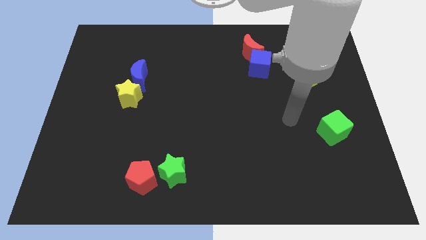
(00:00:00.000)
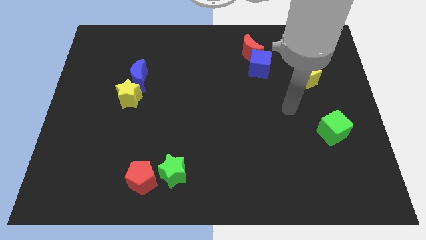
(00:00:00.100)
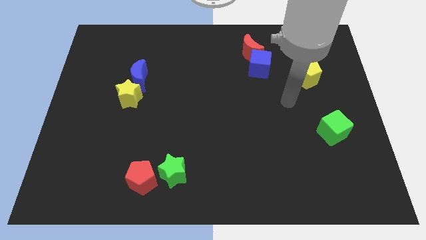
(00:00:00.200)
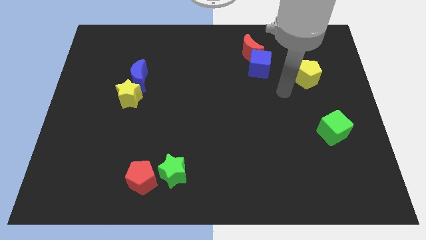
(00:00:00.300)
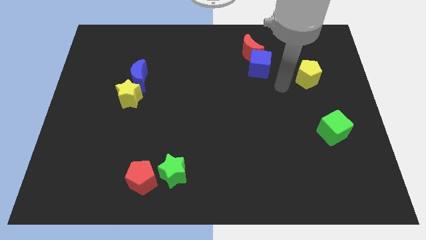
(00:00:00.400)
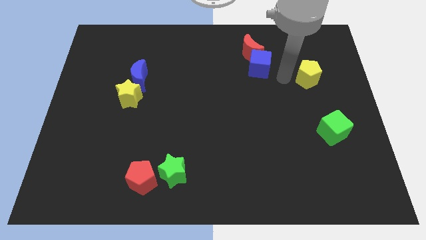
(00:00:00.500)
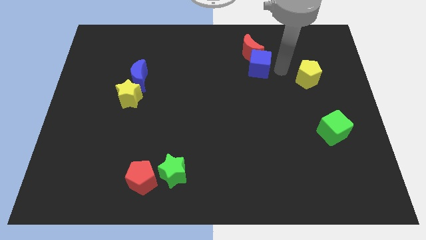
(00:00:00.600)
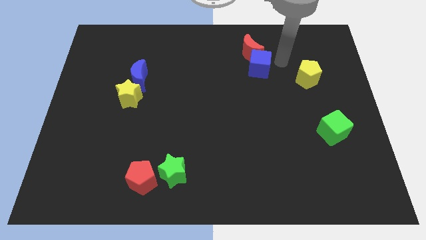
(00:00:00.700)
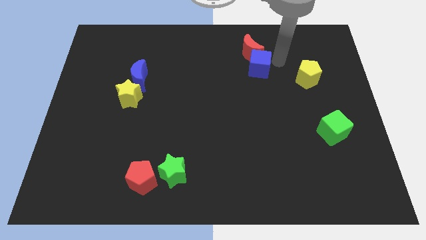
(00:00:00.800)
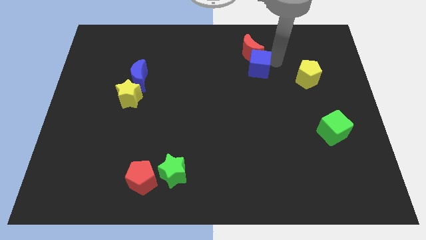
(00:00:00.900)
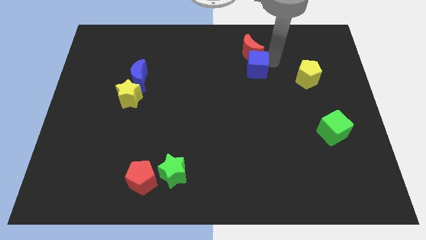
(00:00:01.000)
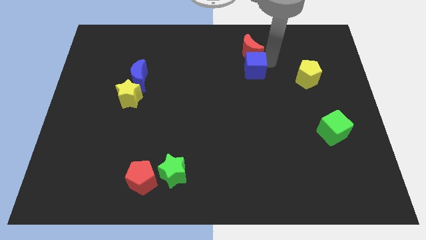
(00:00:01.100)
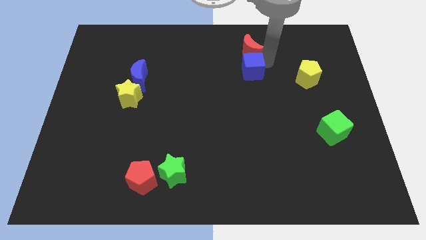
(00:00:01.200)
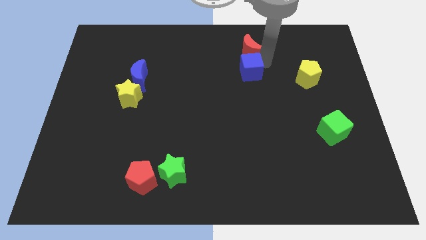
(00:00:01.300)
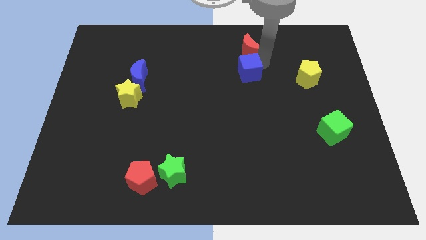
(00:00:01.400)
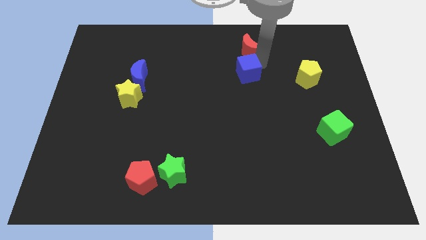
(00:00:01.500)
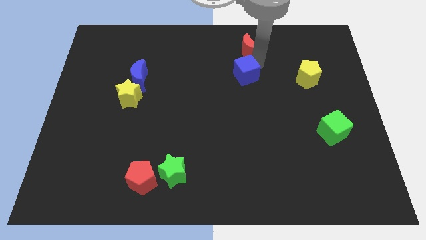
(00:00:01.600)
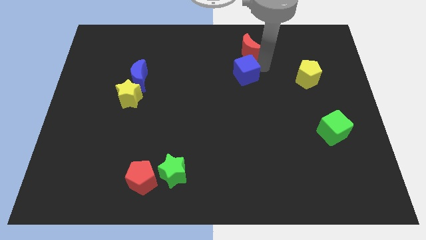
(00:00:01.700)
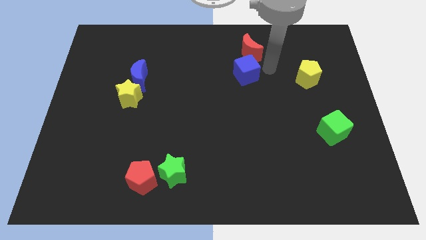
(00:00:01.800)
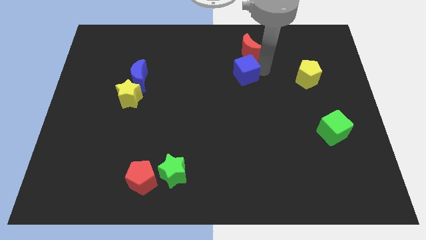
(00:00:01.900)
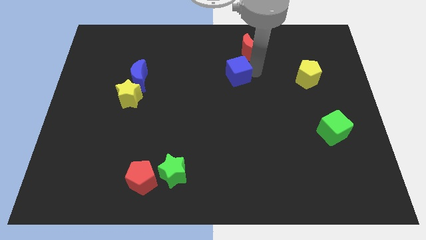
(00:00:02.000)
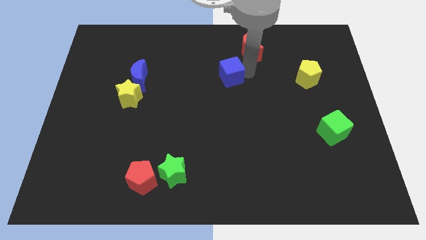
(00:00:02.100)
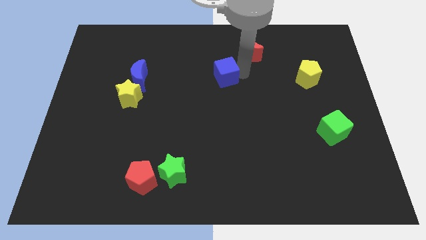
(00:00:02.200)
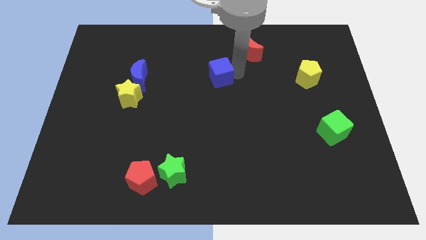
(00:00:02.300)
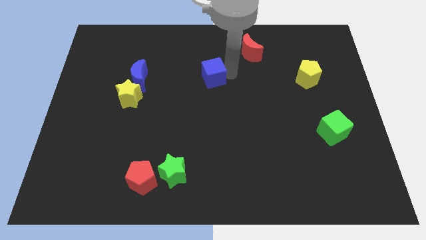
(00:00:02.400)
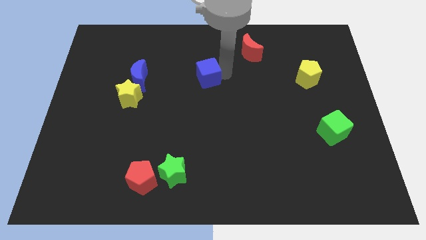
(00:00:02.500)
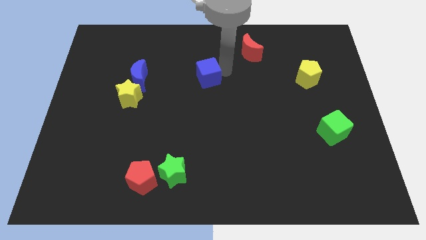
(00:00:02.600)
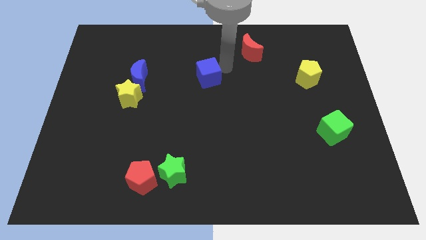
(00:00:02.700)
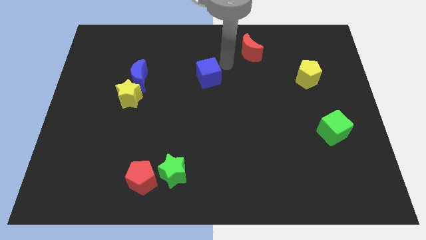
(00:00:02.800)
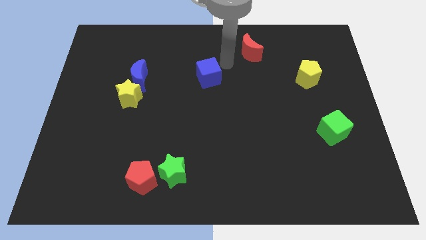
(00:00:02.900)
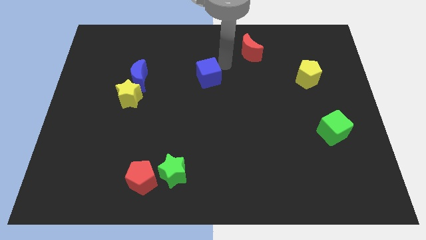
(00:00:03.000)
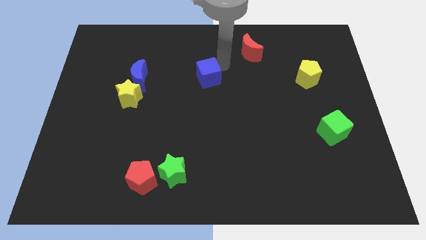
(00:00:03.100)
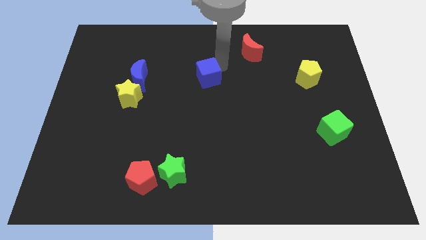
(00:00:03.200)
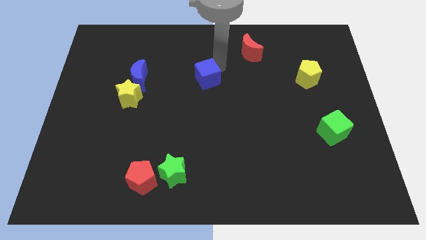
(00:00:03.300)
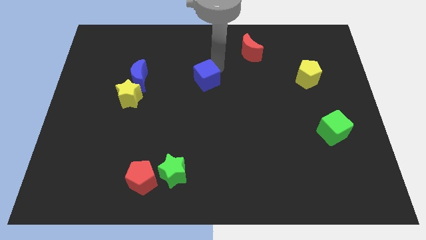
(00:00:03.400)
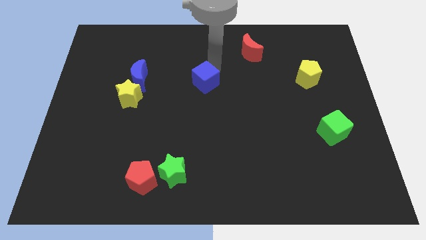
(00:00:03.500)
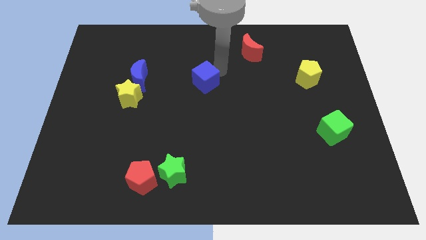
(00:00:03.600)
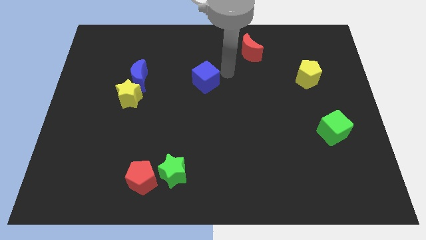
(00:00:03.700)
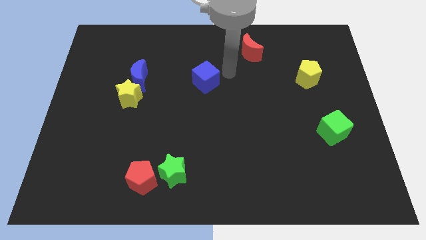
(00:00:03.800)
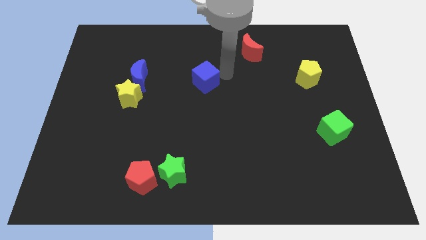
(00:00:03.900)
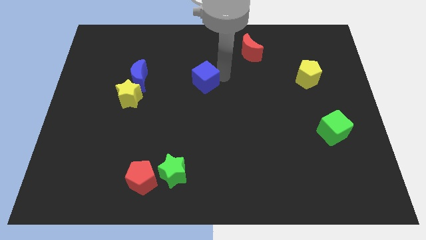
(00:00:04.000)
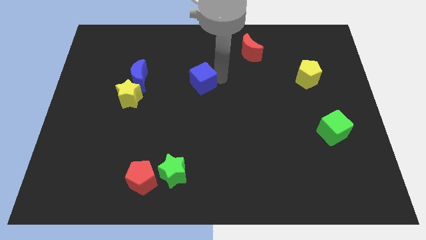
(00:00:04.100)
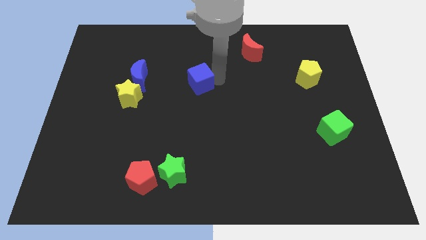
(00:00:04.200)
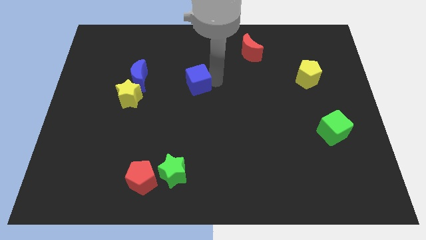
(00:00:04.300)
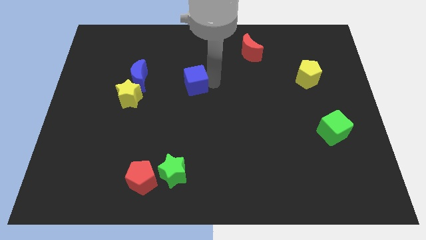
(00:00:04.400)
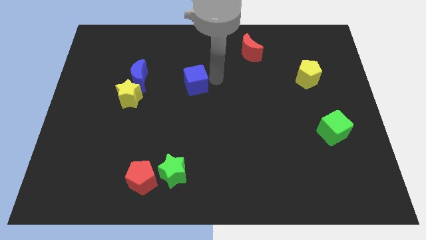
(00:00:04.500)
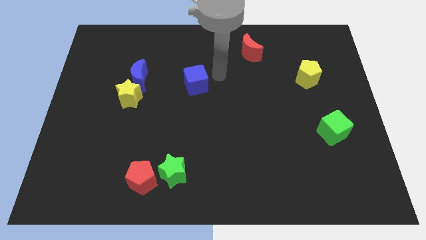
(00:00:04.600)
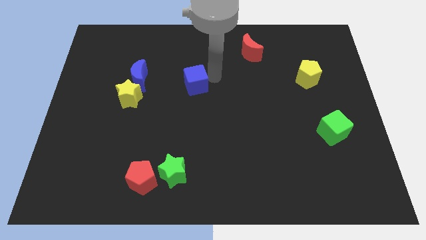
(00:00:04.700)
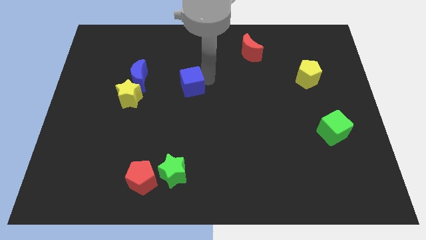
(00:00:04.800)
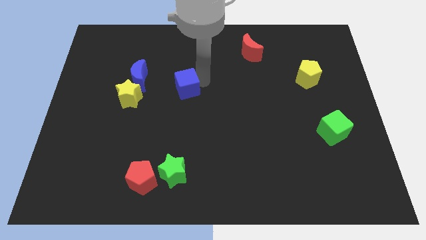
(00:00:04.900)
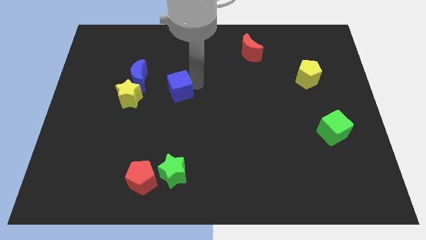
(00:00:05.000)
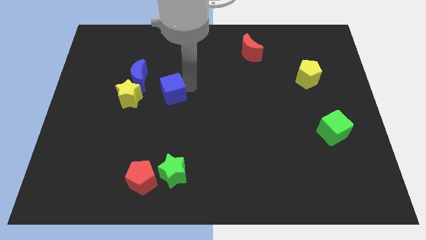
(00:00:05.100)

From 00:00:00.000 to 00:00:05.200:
slide the blue cube to the bottom right side of the blue moon

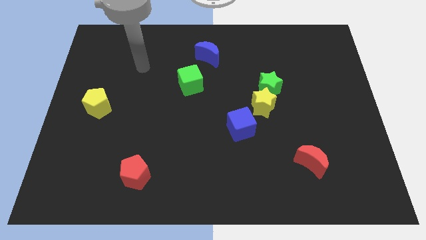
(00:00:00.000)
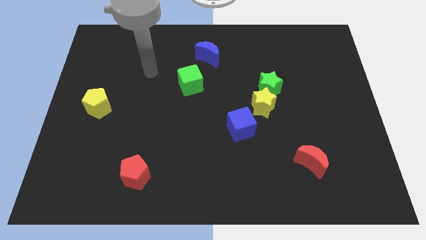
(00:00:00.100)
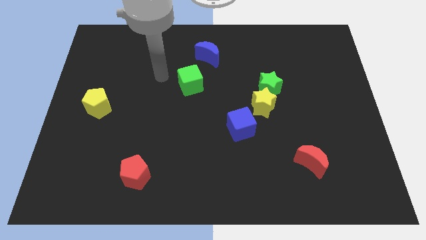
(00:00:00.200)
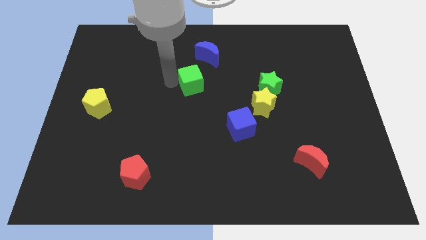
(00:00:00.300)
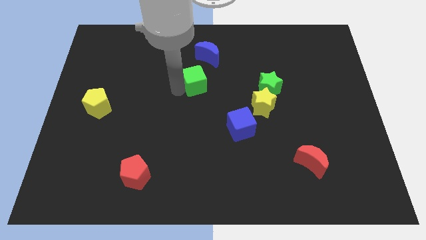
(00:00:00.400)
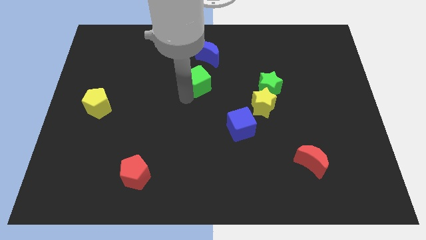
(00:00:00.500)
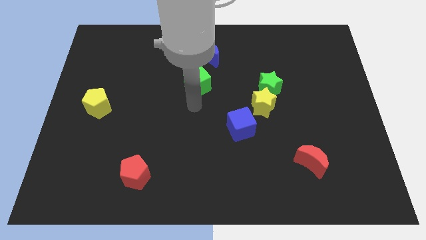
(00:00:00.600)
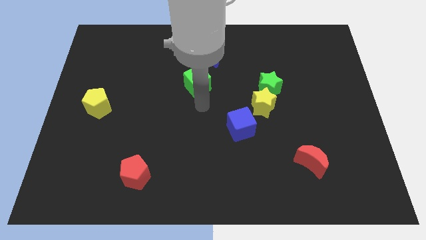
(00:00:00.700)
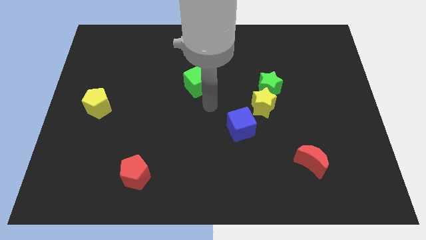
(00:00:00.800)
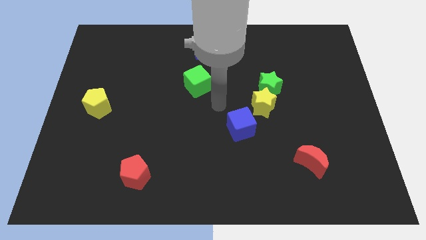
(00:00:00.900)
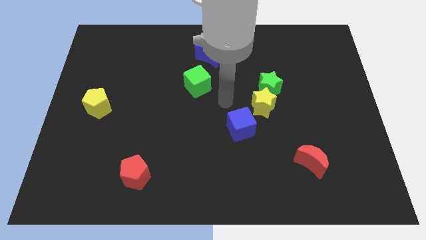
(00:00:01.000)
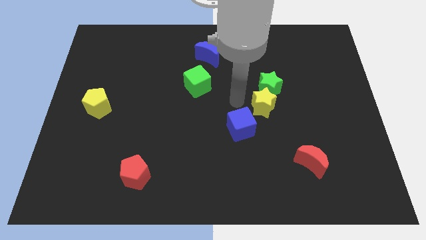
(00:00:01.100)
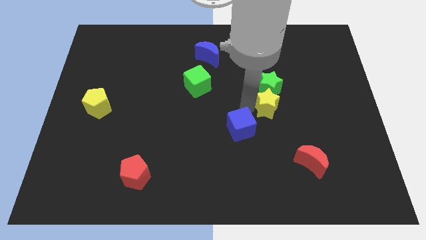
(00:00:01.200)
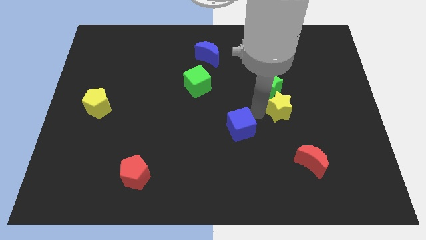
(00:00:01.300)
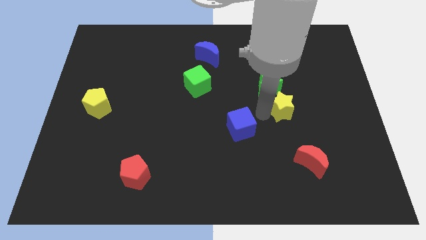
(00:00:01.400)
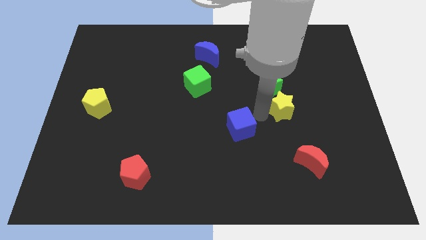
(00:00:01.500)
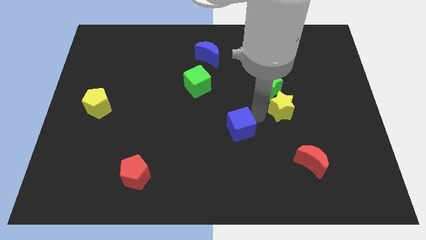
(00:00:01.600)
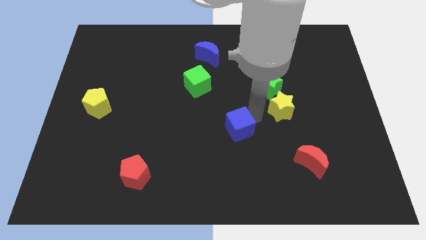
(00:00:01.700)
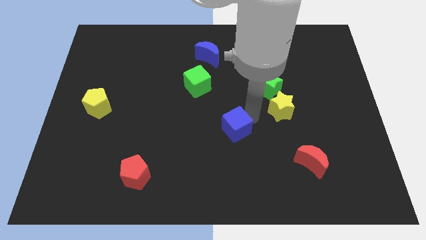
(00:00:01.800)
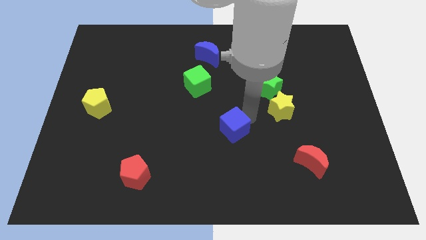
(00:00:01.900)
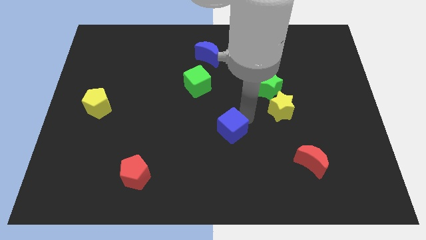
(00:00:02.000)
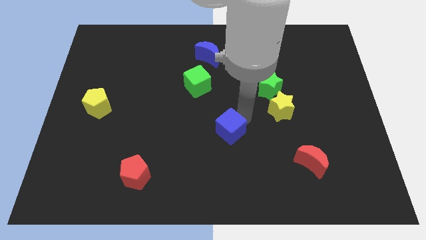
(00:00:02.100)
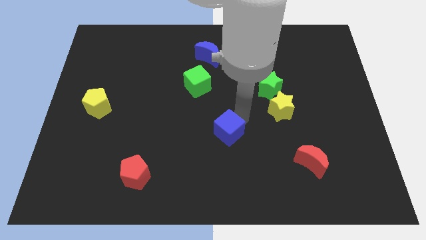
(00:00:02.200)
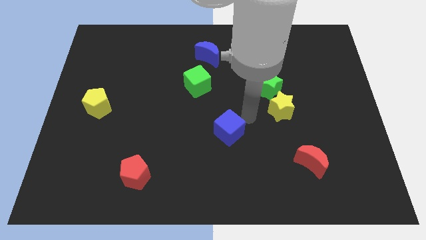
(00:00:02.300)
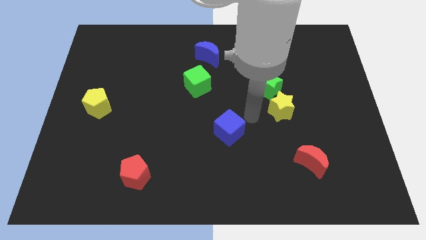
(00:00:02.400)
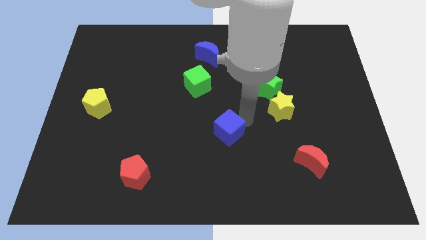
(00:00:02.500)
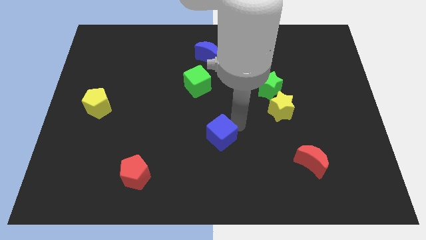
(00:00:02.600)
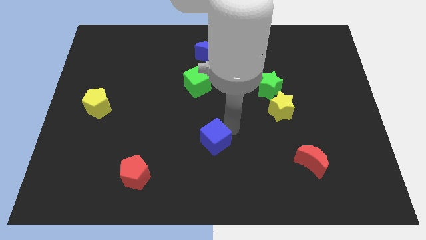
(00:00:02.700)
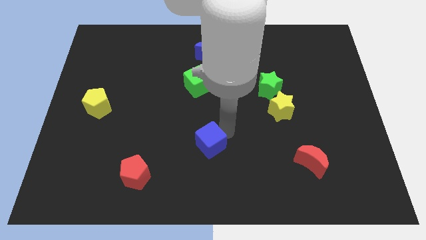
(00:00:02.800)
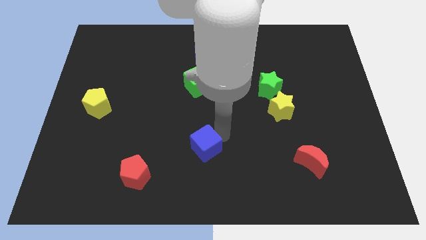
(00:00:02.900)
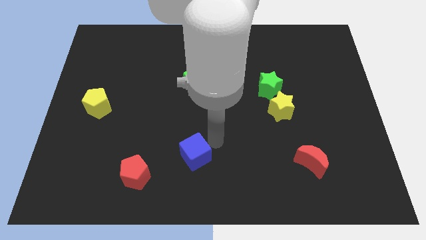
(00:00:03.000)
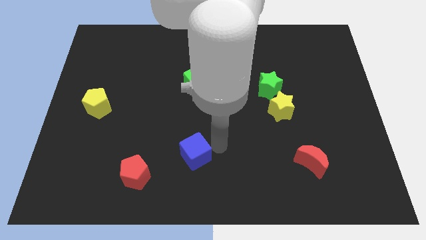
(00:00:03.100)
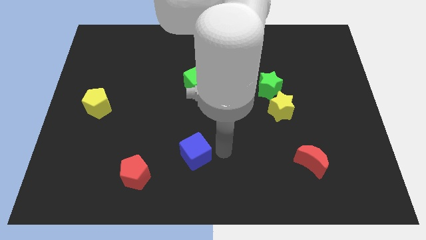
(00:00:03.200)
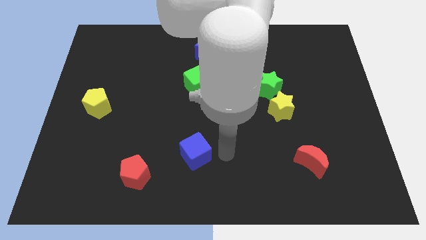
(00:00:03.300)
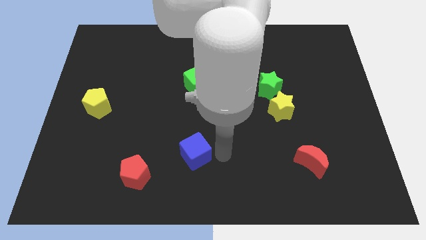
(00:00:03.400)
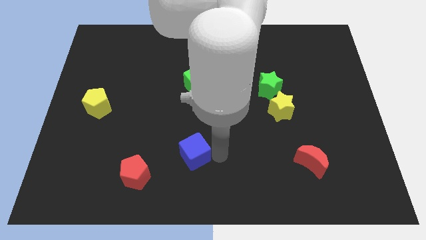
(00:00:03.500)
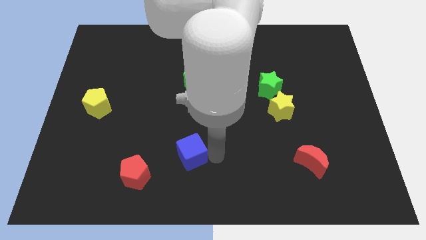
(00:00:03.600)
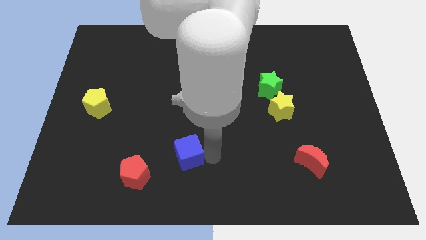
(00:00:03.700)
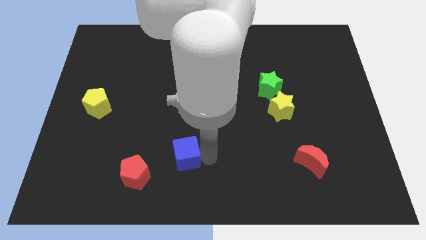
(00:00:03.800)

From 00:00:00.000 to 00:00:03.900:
push the blue cube to the top right side of the red pentagon
